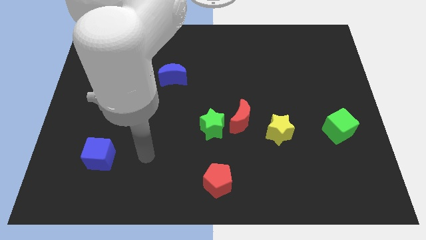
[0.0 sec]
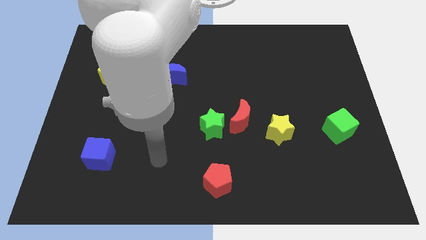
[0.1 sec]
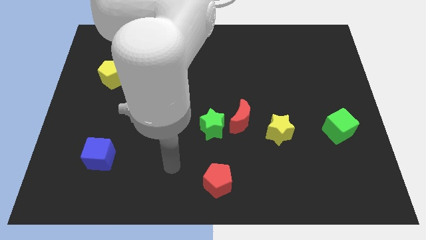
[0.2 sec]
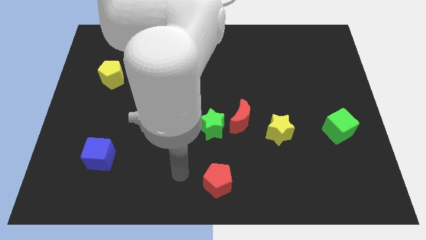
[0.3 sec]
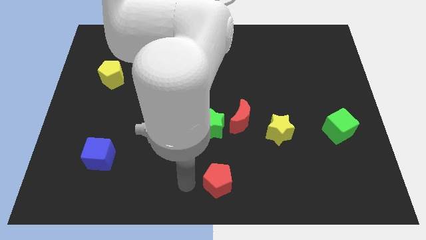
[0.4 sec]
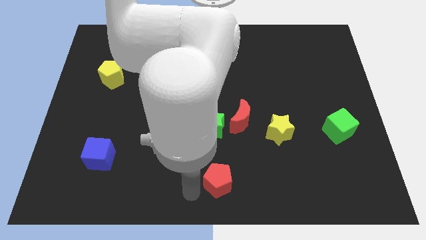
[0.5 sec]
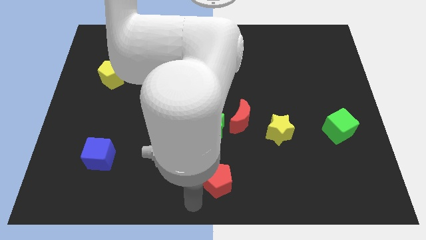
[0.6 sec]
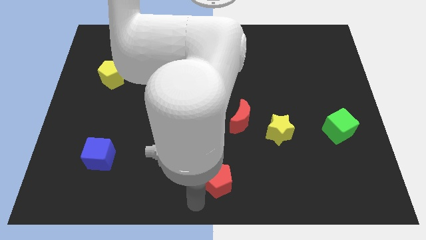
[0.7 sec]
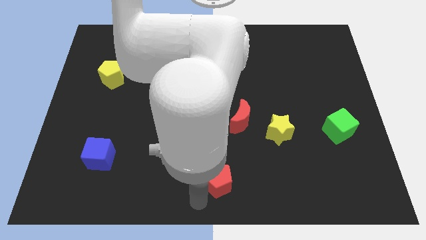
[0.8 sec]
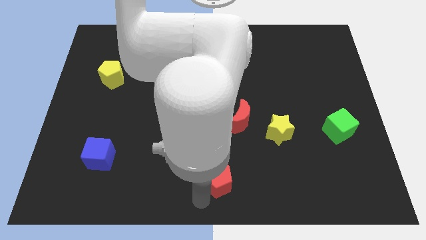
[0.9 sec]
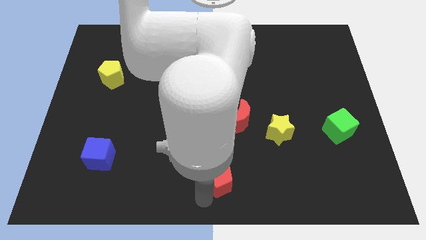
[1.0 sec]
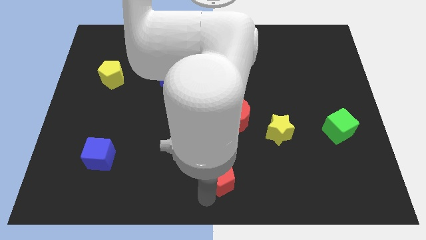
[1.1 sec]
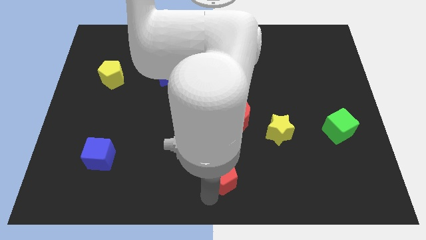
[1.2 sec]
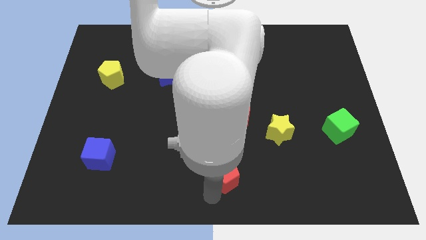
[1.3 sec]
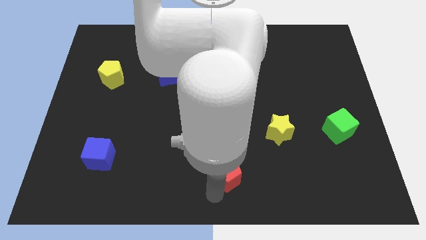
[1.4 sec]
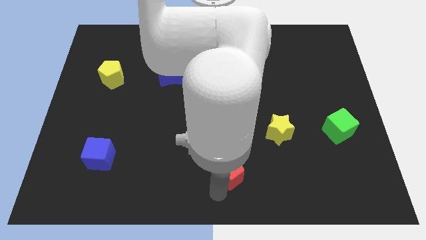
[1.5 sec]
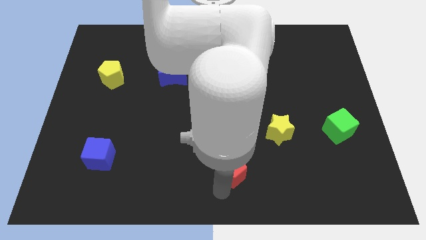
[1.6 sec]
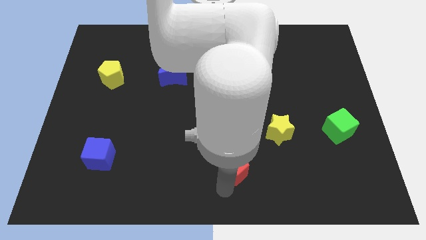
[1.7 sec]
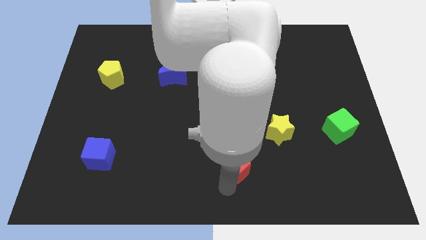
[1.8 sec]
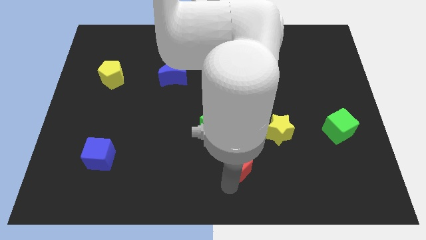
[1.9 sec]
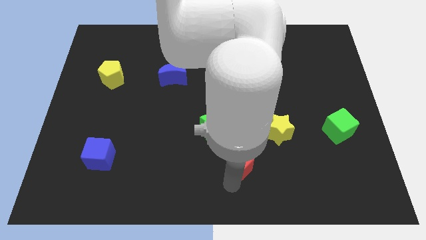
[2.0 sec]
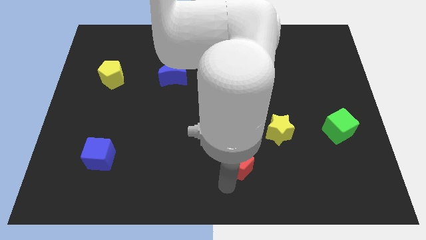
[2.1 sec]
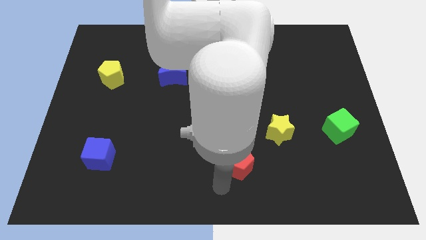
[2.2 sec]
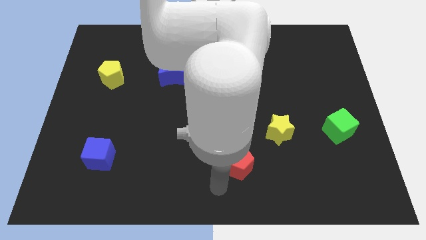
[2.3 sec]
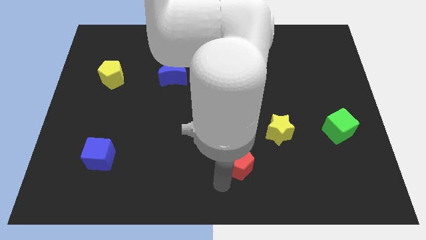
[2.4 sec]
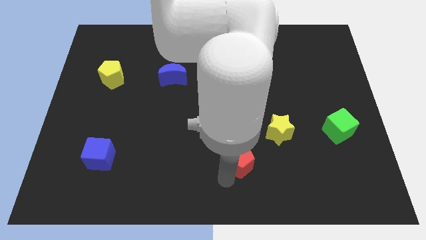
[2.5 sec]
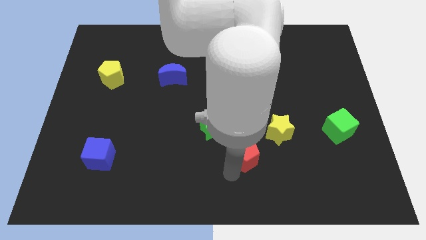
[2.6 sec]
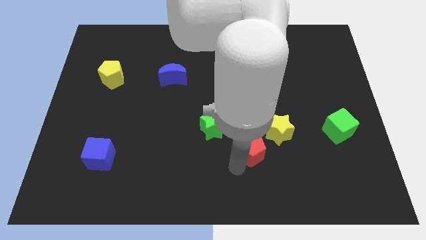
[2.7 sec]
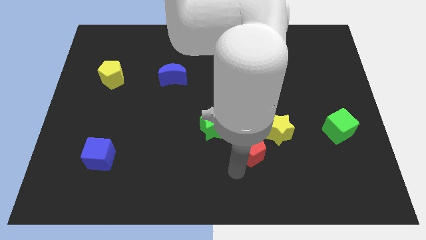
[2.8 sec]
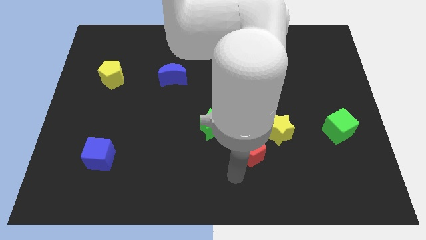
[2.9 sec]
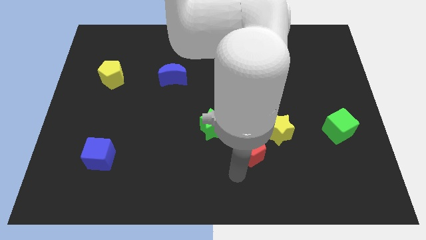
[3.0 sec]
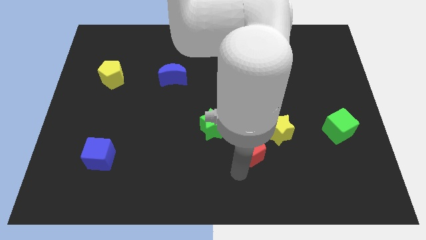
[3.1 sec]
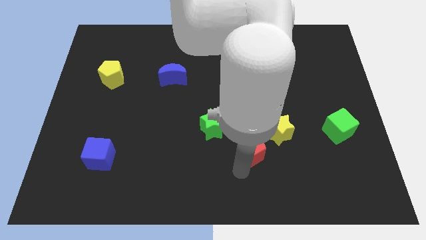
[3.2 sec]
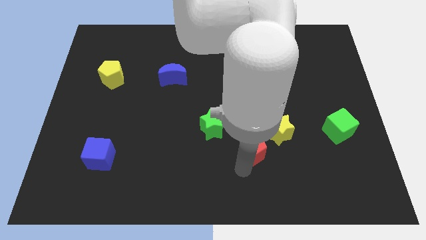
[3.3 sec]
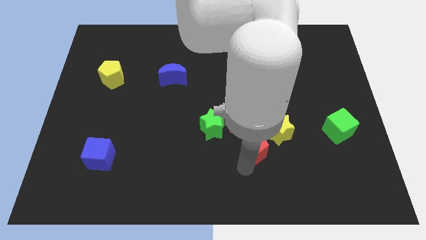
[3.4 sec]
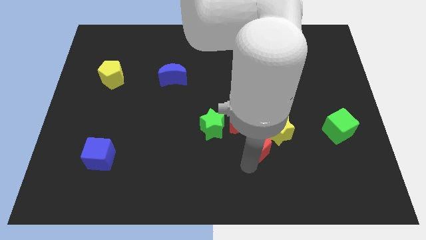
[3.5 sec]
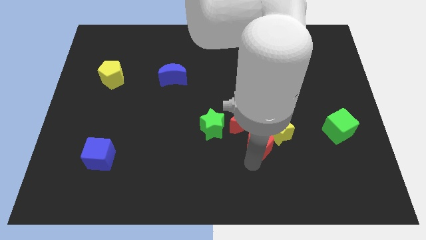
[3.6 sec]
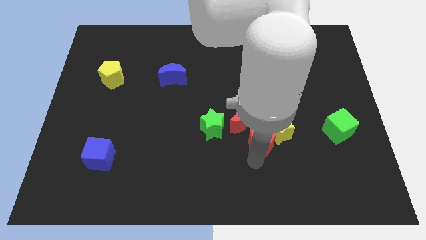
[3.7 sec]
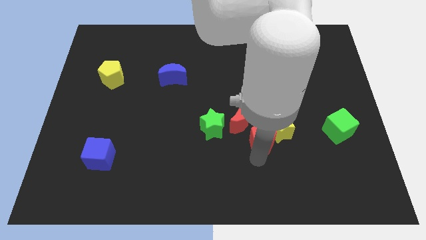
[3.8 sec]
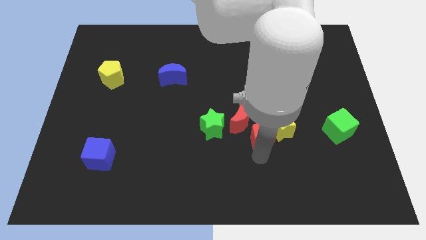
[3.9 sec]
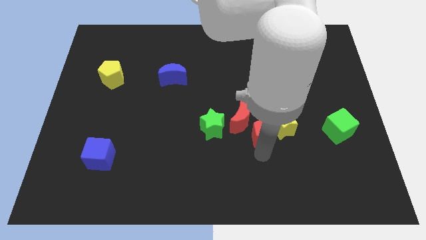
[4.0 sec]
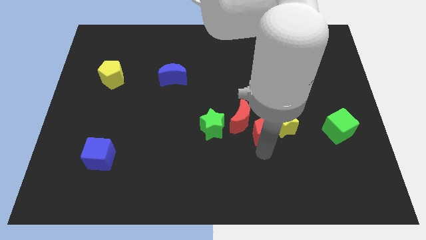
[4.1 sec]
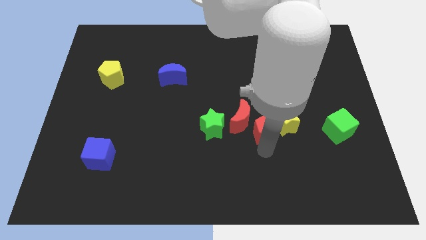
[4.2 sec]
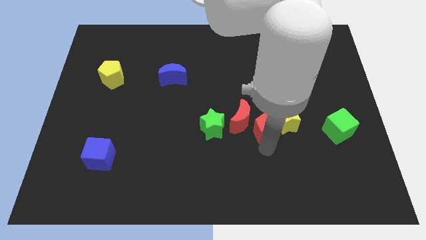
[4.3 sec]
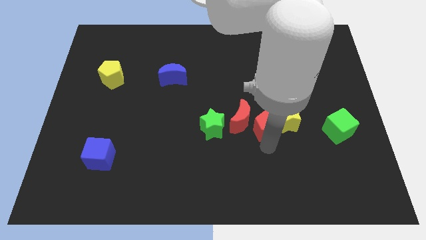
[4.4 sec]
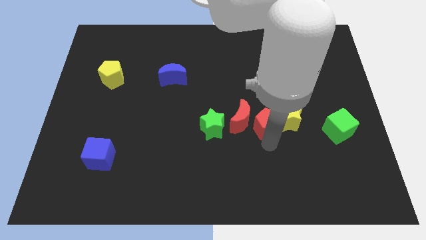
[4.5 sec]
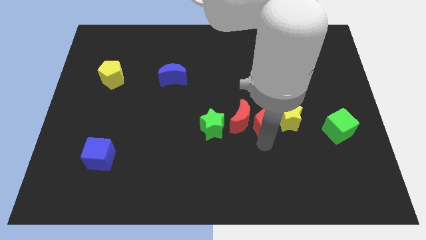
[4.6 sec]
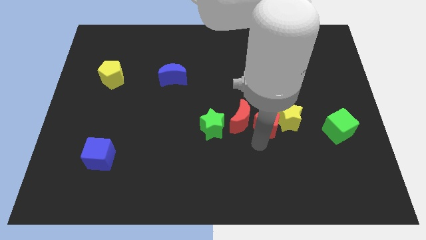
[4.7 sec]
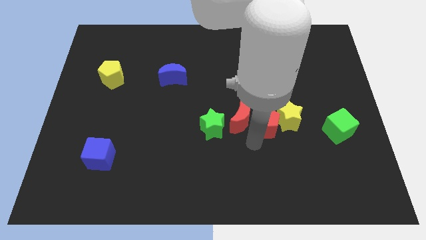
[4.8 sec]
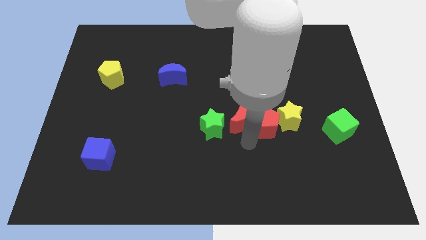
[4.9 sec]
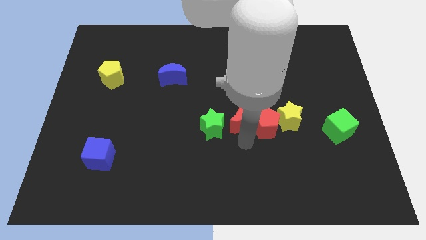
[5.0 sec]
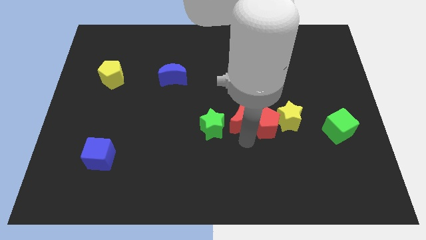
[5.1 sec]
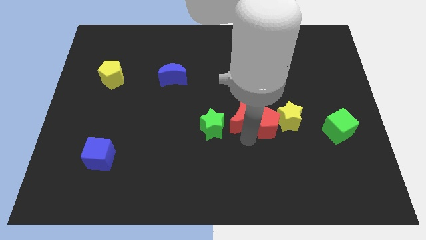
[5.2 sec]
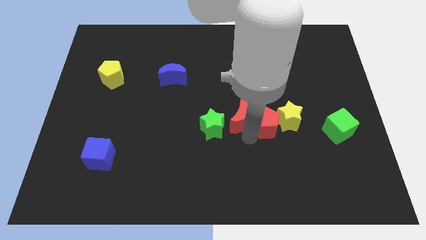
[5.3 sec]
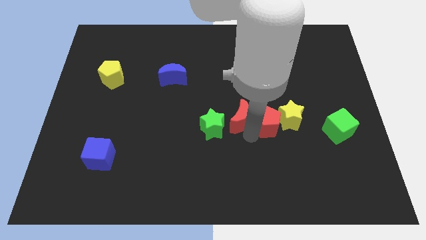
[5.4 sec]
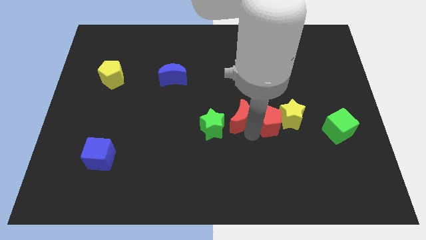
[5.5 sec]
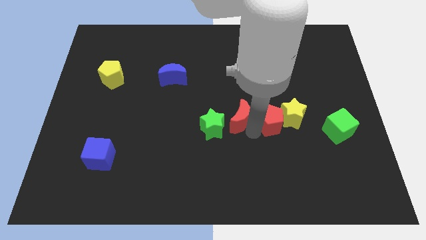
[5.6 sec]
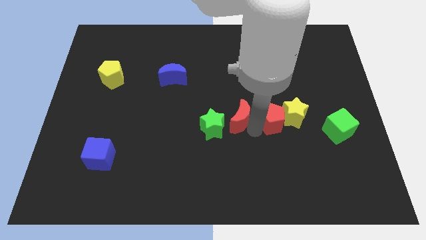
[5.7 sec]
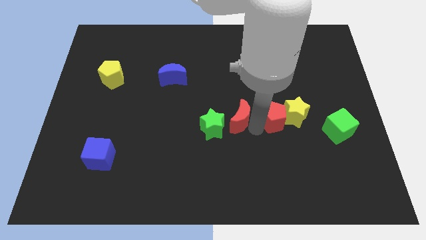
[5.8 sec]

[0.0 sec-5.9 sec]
slide the red pentagon upwards and right

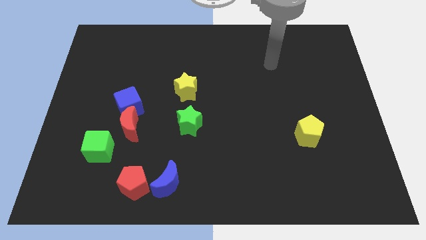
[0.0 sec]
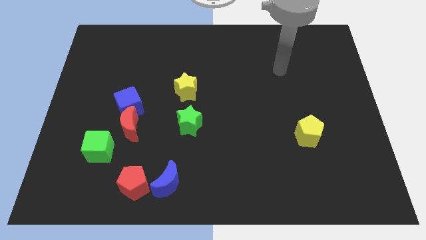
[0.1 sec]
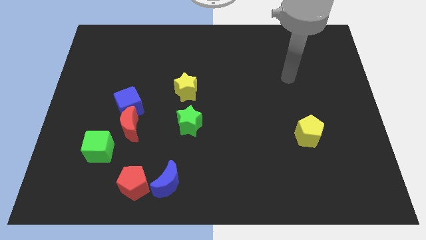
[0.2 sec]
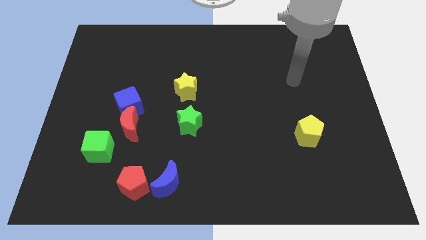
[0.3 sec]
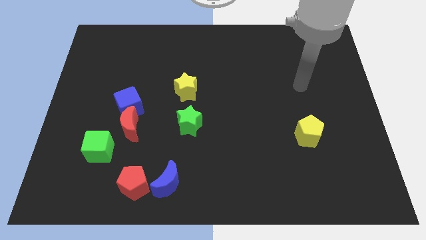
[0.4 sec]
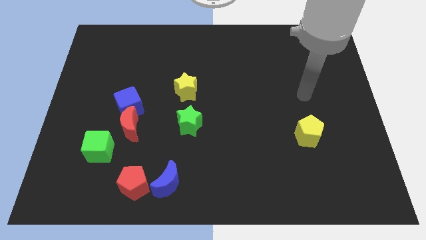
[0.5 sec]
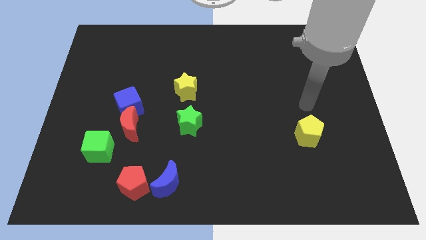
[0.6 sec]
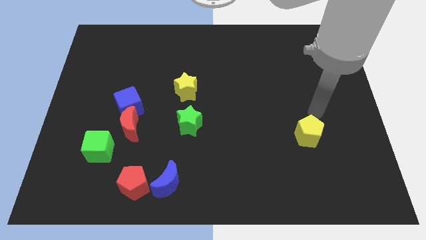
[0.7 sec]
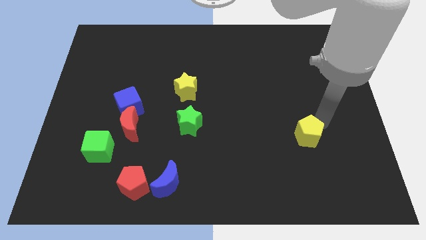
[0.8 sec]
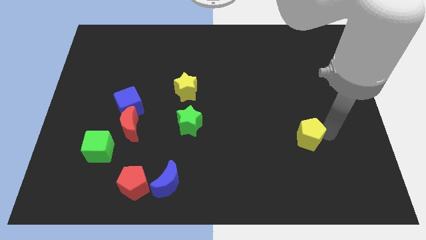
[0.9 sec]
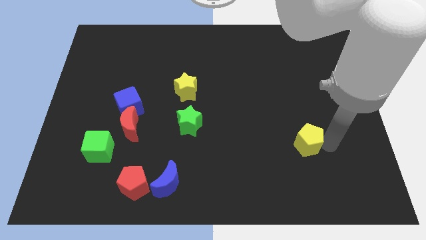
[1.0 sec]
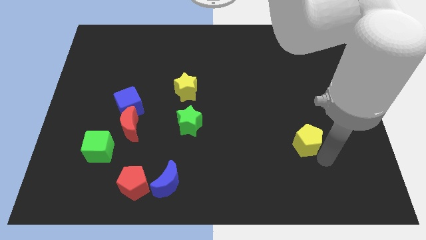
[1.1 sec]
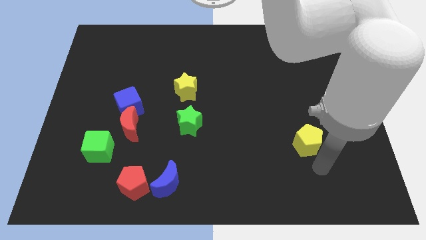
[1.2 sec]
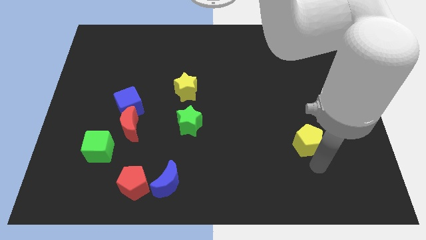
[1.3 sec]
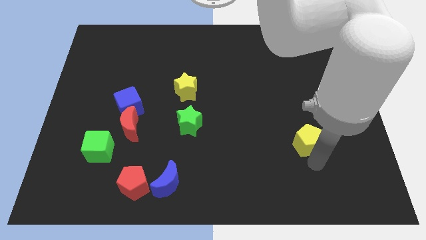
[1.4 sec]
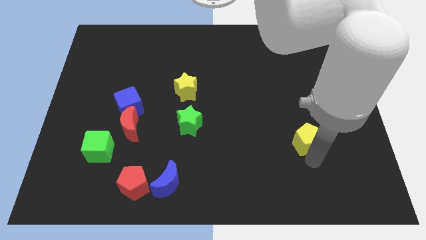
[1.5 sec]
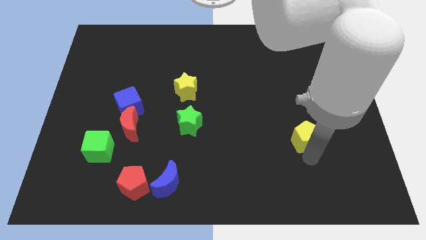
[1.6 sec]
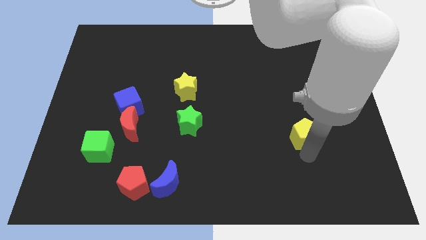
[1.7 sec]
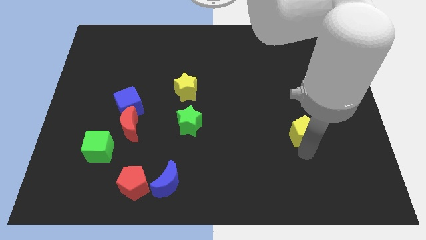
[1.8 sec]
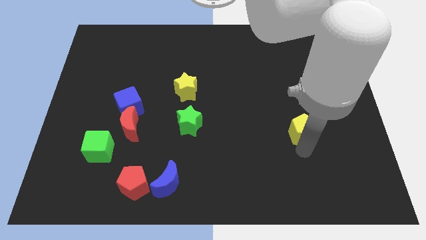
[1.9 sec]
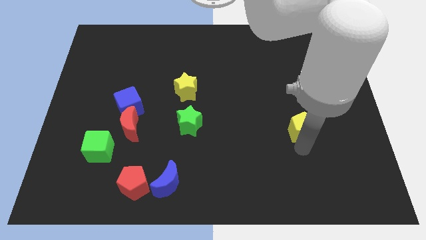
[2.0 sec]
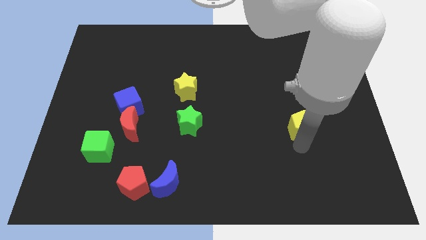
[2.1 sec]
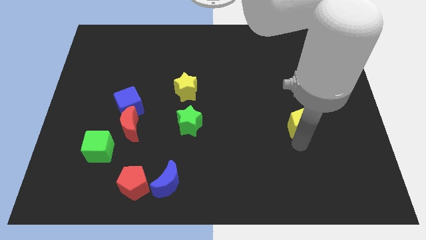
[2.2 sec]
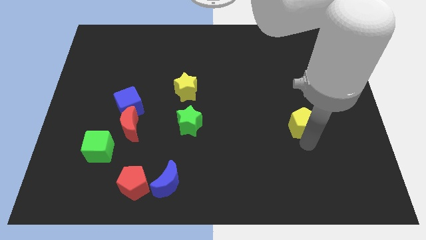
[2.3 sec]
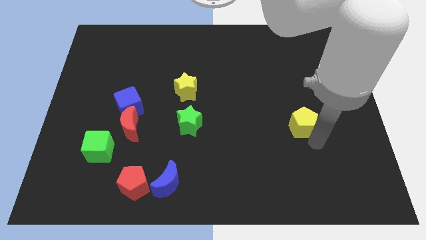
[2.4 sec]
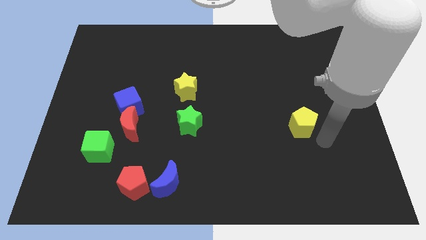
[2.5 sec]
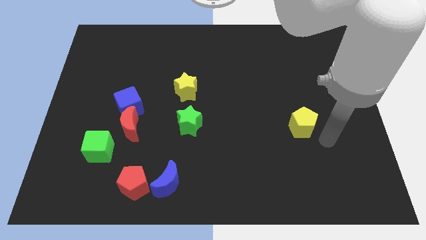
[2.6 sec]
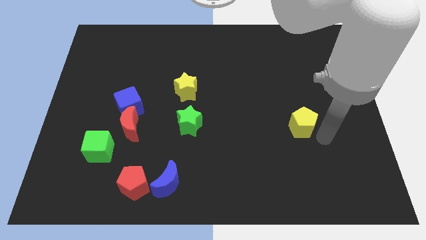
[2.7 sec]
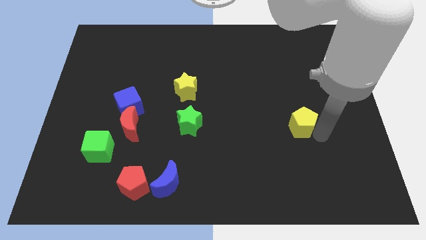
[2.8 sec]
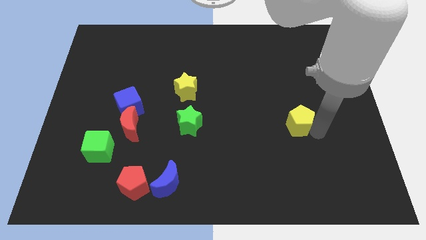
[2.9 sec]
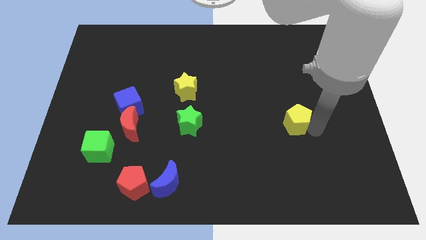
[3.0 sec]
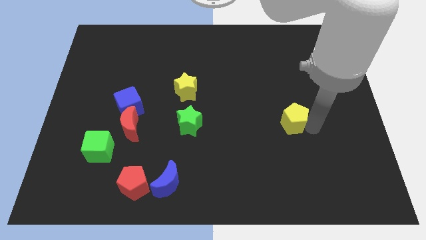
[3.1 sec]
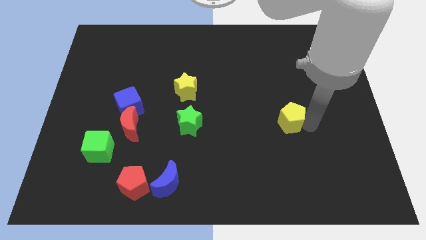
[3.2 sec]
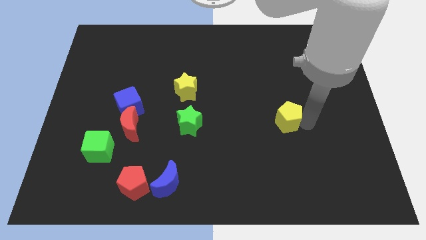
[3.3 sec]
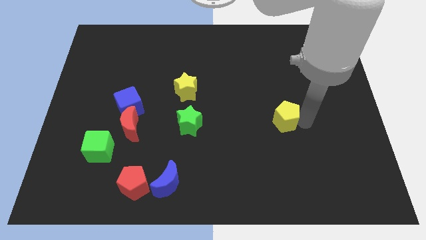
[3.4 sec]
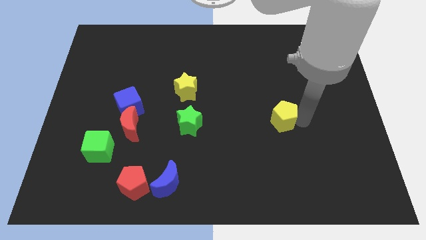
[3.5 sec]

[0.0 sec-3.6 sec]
slightly move the yellow pentagon upwards and to the left
